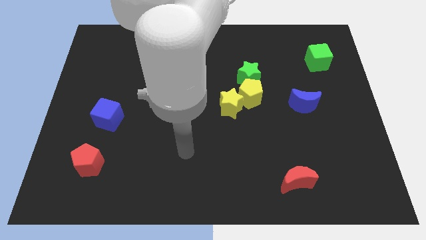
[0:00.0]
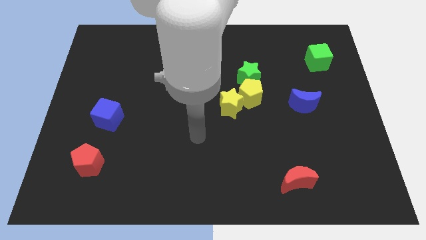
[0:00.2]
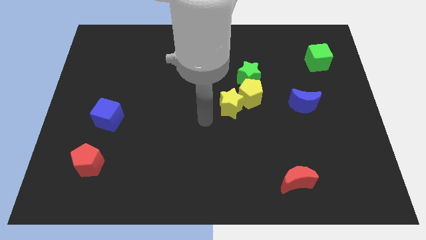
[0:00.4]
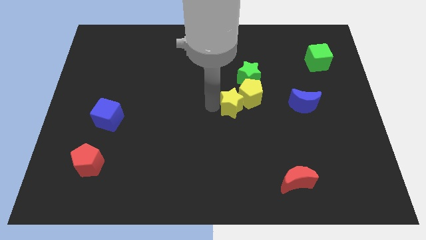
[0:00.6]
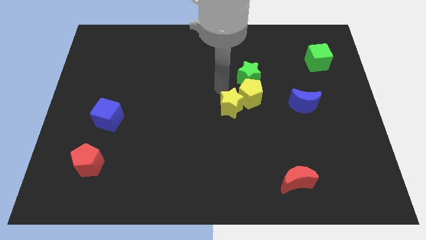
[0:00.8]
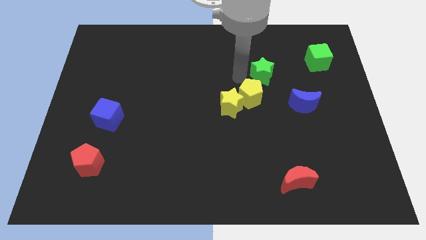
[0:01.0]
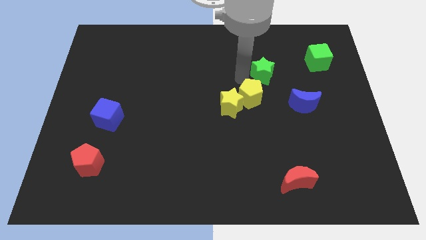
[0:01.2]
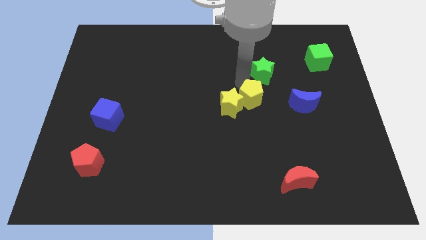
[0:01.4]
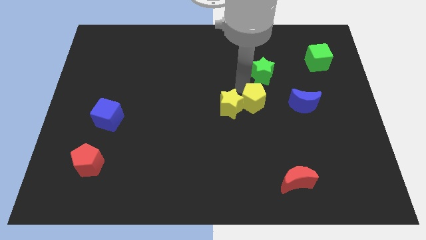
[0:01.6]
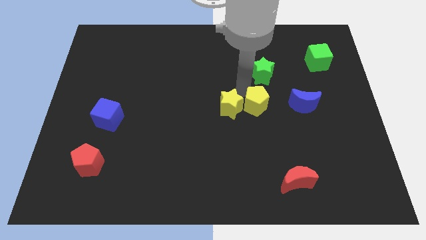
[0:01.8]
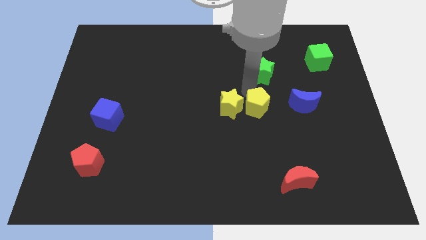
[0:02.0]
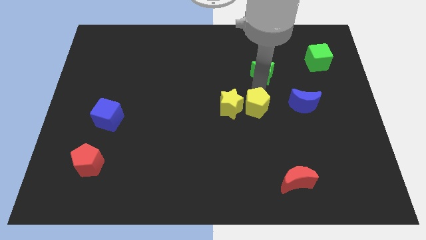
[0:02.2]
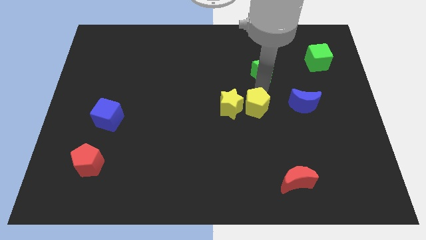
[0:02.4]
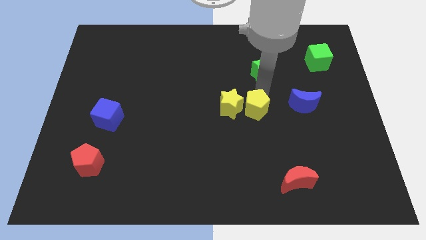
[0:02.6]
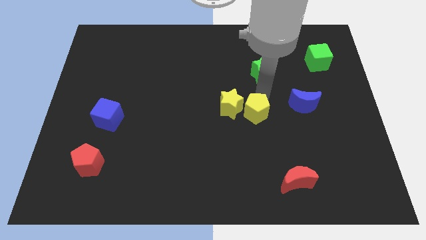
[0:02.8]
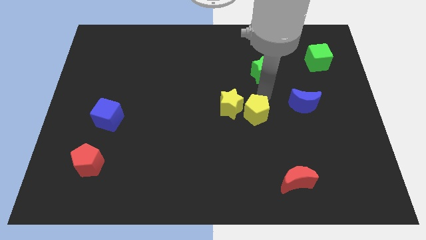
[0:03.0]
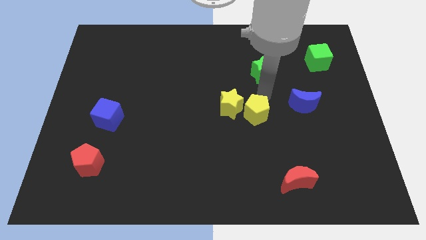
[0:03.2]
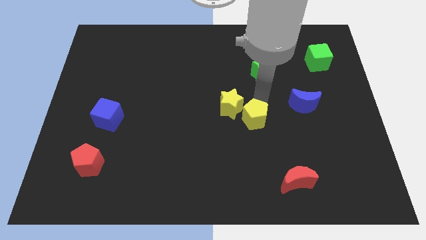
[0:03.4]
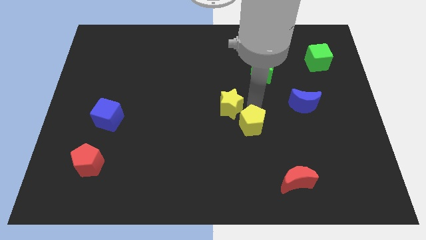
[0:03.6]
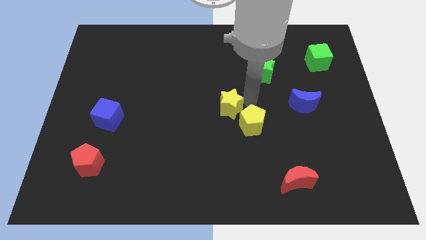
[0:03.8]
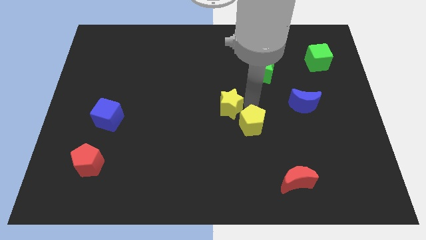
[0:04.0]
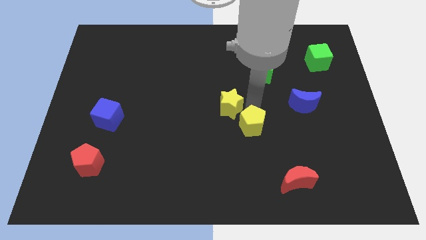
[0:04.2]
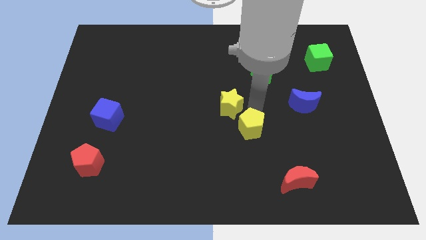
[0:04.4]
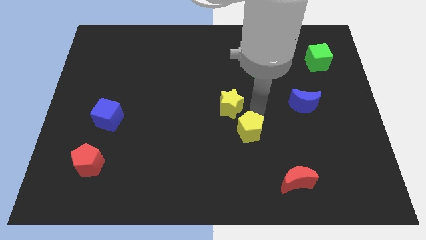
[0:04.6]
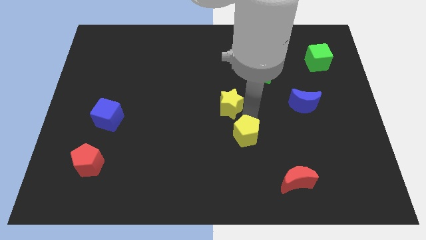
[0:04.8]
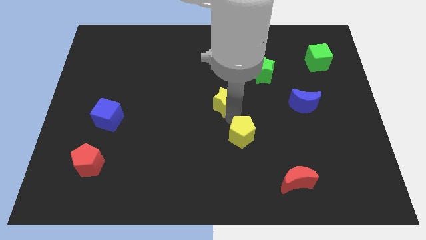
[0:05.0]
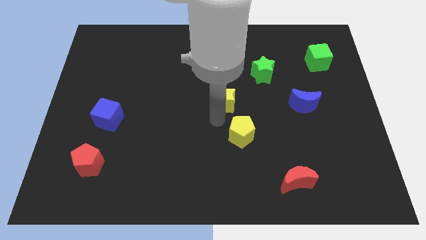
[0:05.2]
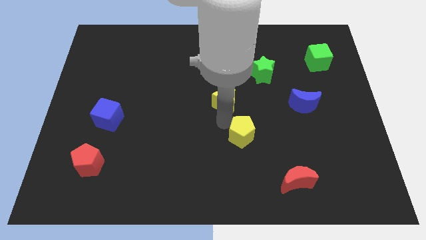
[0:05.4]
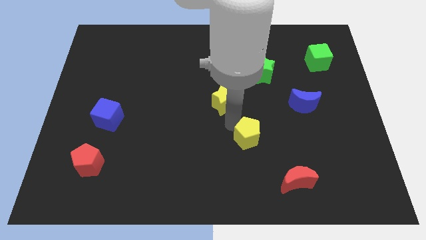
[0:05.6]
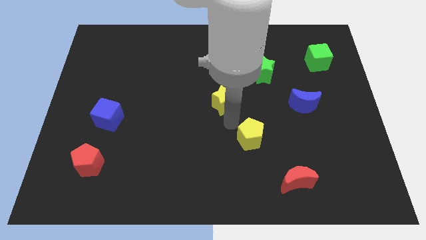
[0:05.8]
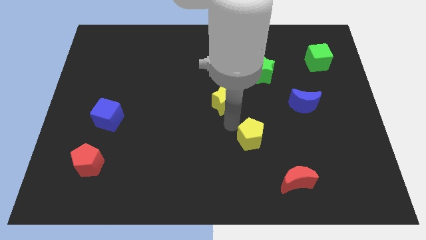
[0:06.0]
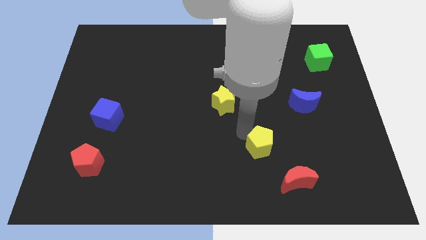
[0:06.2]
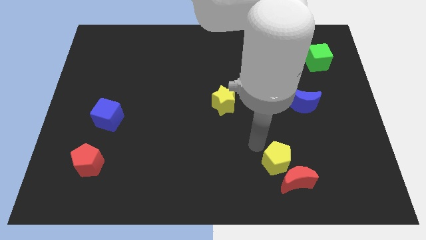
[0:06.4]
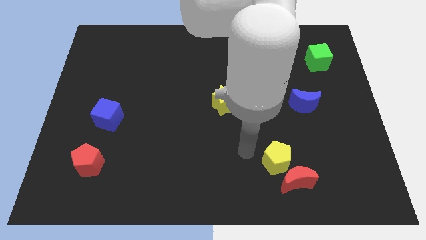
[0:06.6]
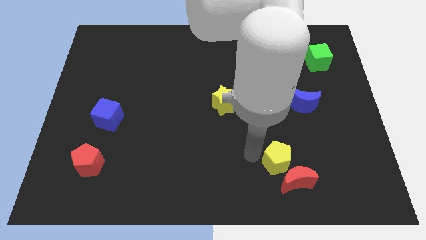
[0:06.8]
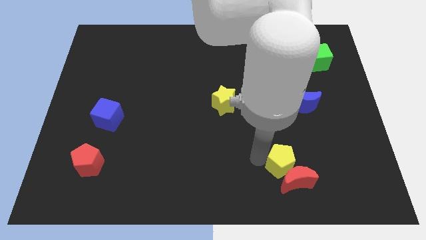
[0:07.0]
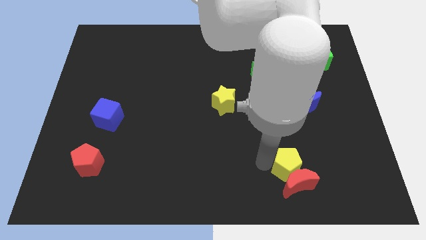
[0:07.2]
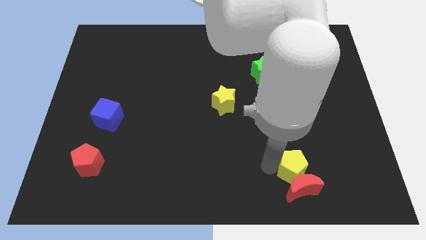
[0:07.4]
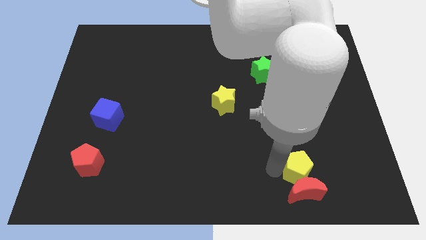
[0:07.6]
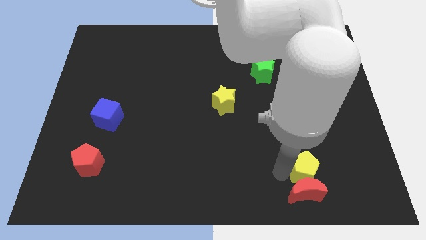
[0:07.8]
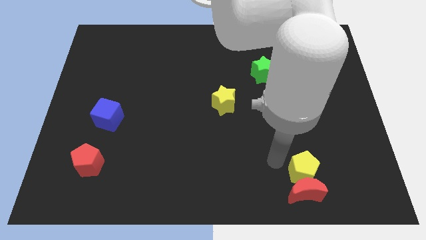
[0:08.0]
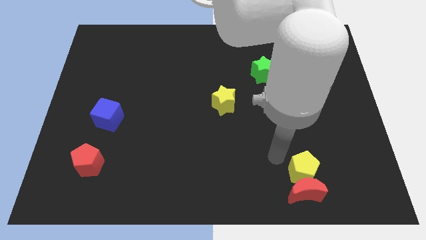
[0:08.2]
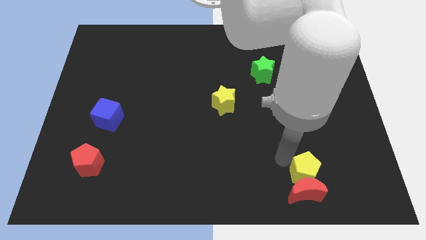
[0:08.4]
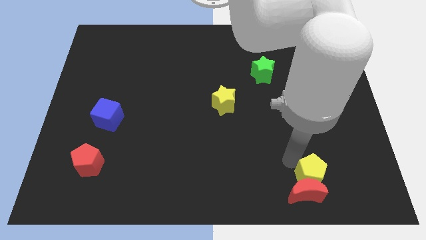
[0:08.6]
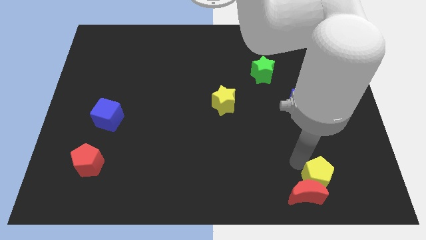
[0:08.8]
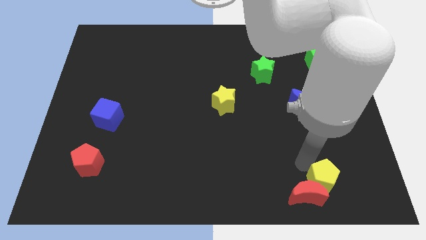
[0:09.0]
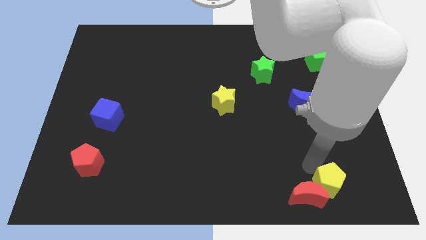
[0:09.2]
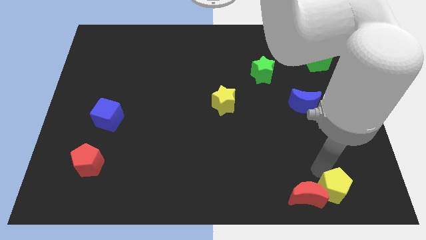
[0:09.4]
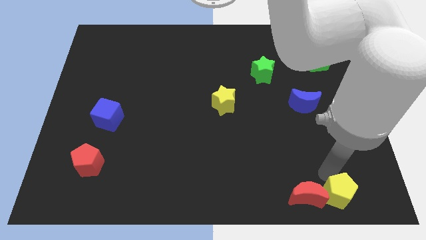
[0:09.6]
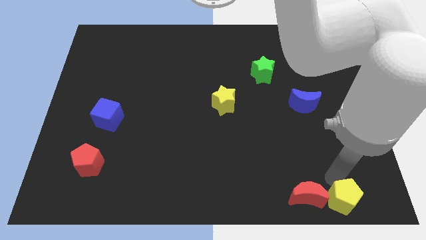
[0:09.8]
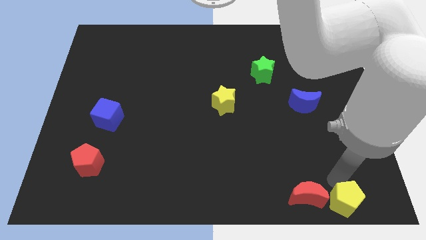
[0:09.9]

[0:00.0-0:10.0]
slide the yellow pentagon to the bottom right corner

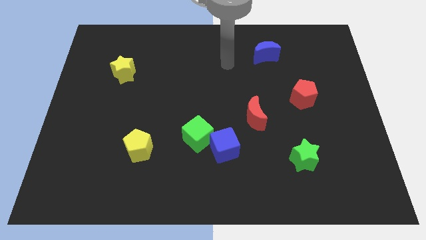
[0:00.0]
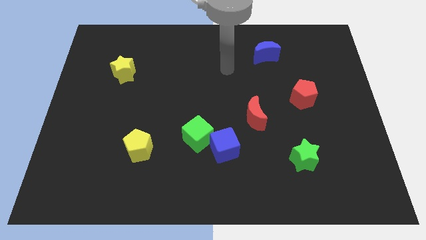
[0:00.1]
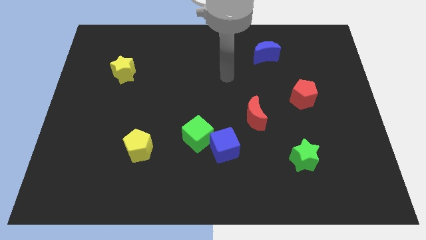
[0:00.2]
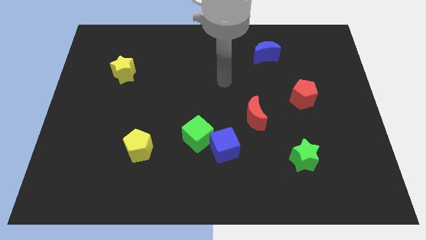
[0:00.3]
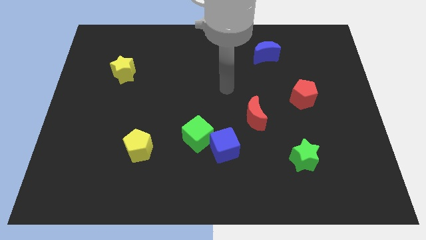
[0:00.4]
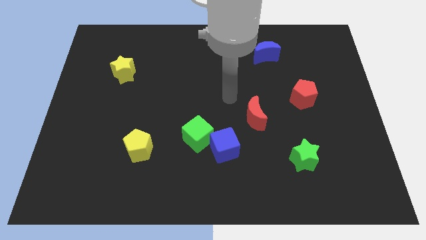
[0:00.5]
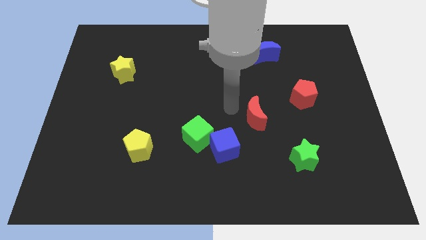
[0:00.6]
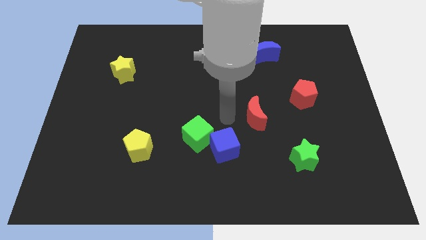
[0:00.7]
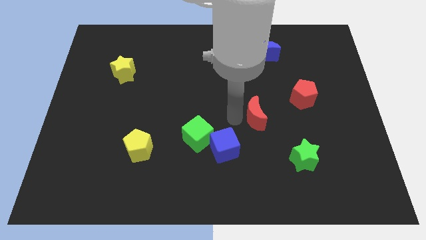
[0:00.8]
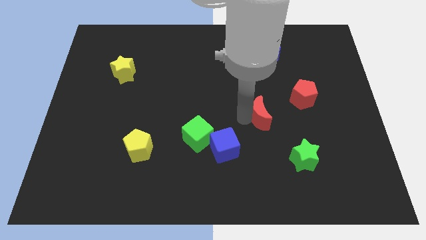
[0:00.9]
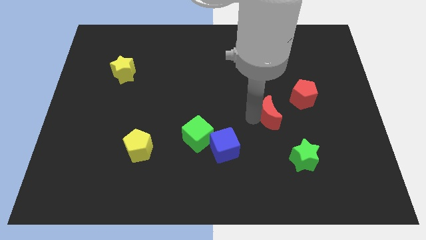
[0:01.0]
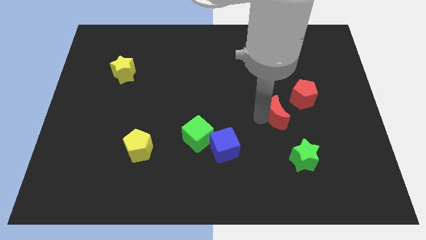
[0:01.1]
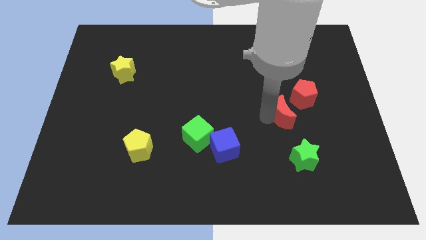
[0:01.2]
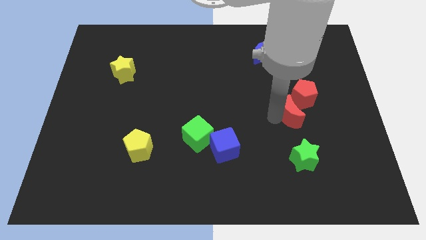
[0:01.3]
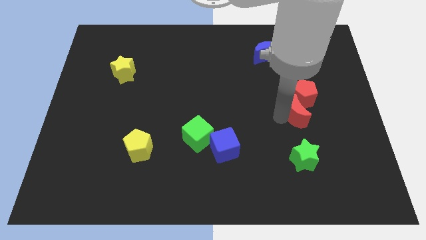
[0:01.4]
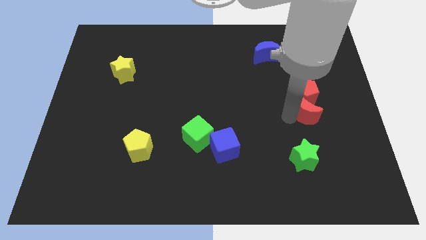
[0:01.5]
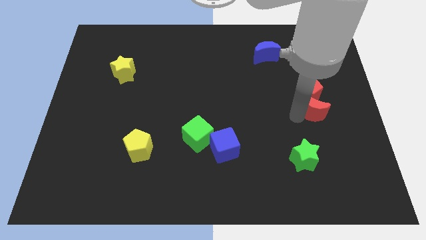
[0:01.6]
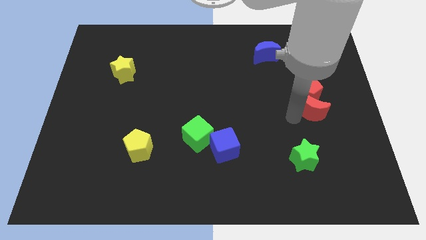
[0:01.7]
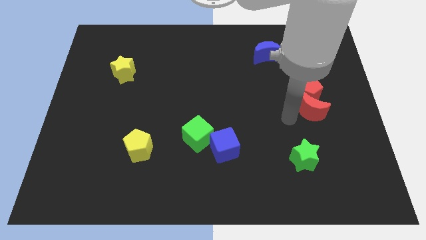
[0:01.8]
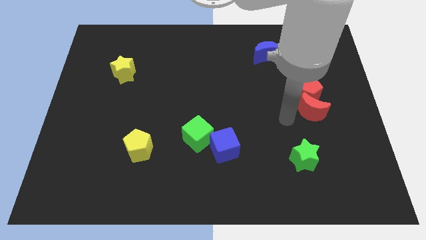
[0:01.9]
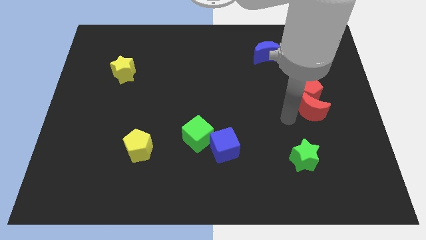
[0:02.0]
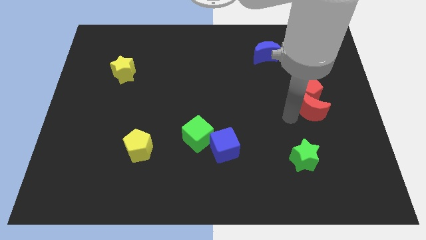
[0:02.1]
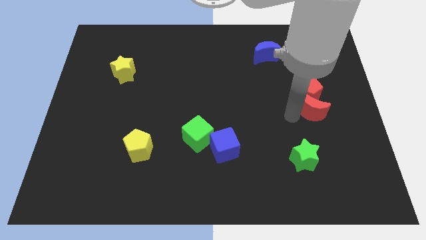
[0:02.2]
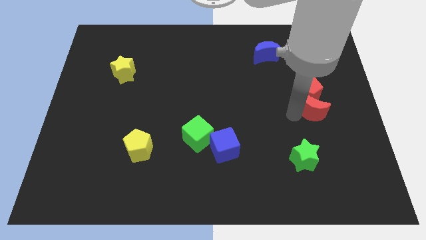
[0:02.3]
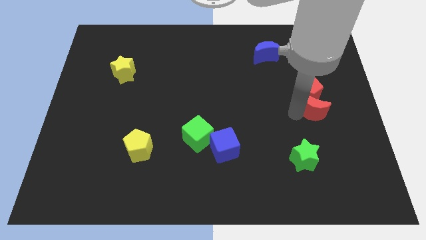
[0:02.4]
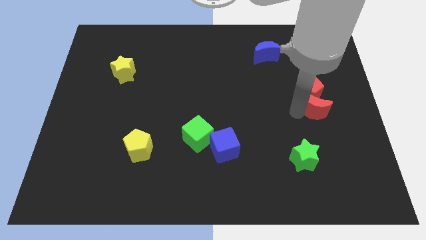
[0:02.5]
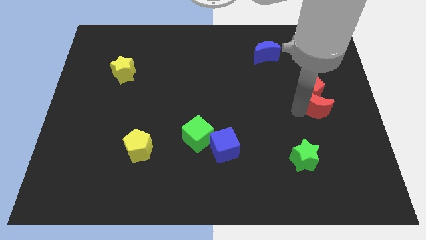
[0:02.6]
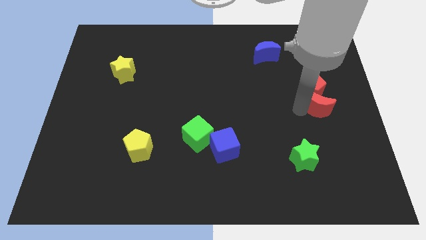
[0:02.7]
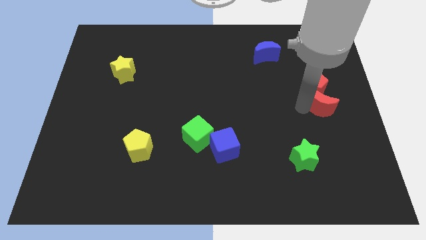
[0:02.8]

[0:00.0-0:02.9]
push the red moon to the right side of the board

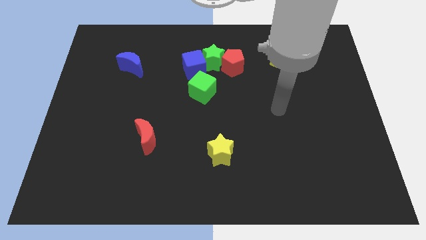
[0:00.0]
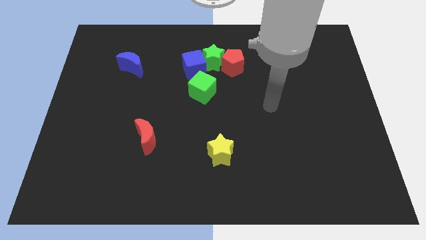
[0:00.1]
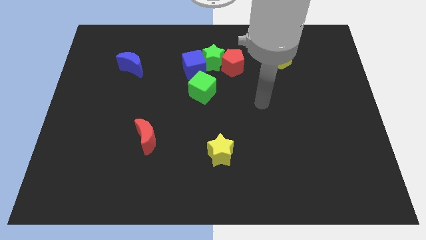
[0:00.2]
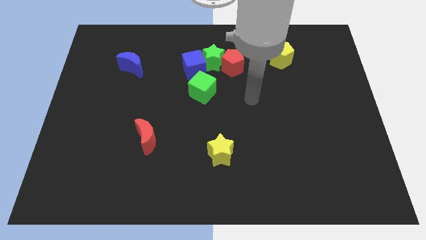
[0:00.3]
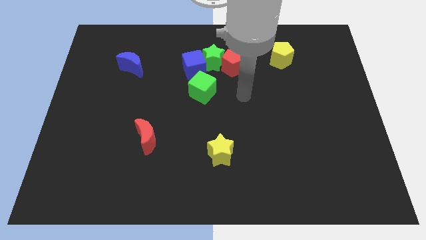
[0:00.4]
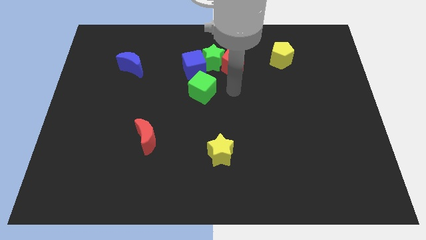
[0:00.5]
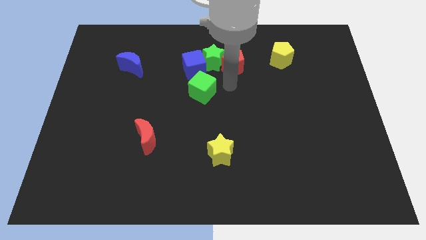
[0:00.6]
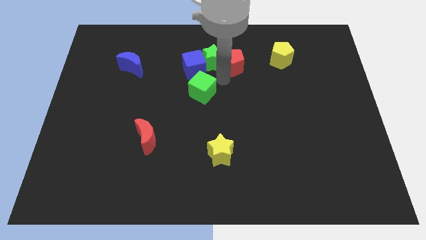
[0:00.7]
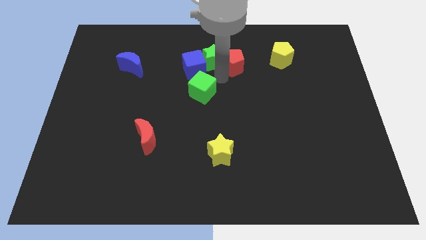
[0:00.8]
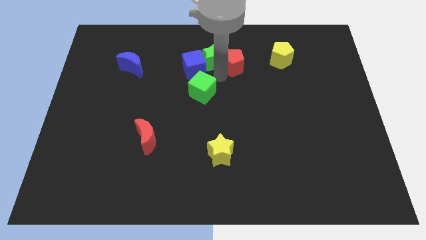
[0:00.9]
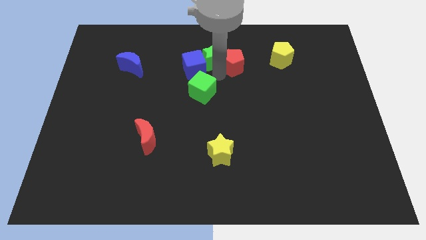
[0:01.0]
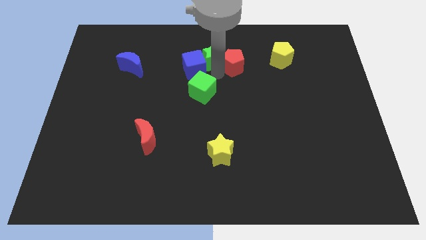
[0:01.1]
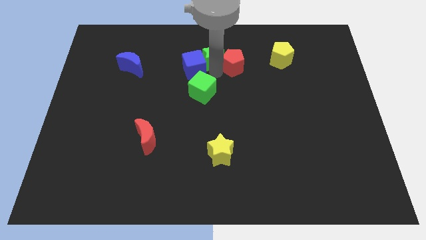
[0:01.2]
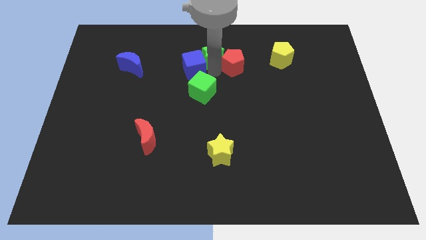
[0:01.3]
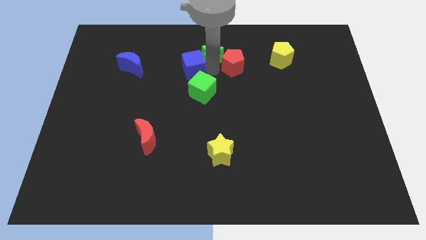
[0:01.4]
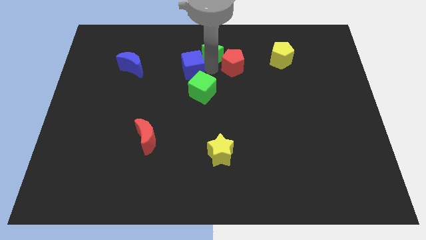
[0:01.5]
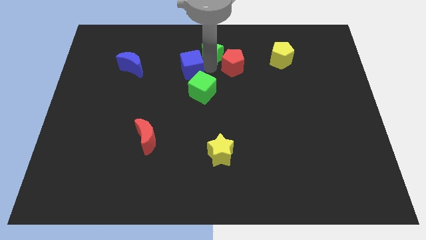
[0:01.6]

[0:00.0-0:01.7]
put the green star to the top side
